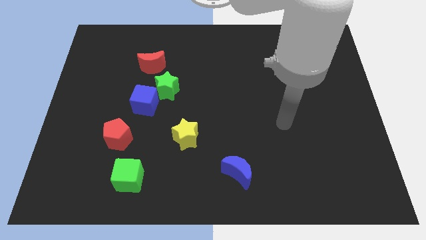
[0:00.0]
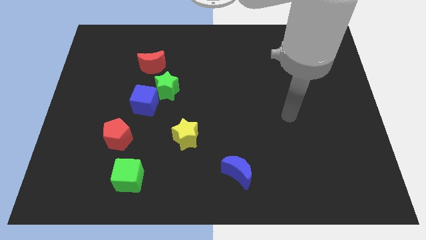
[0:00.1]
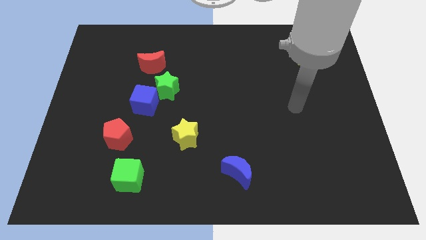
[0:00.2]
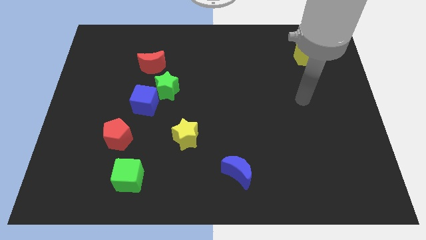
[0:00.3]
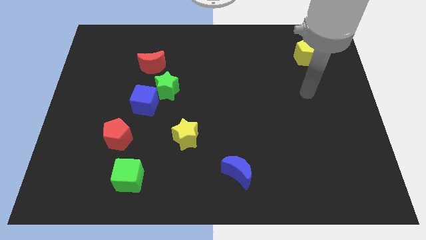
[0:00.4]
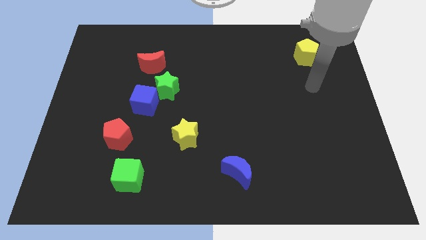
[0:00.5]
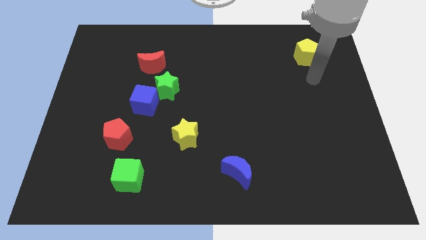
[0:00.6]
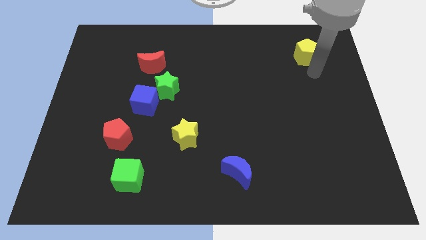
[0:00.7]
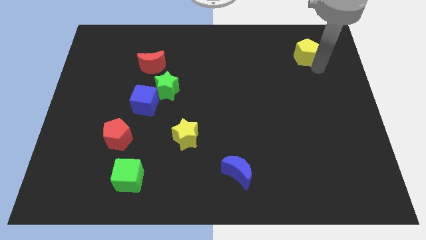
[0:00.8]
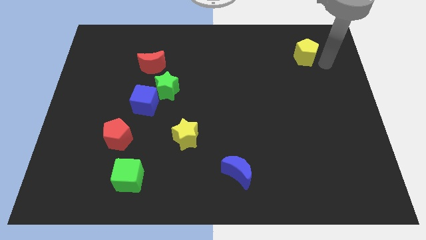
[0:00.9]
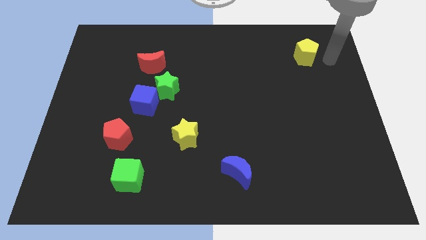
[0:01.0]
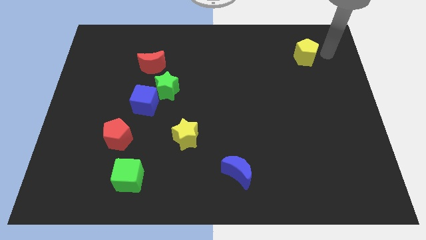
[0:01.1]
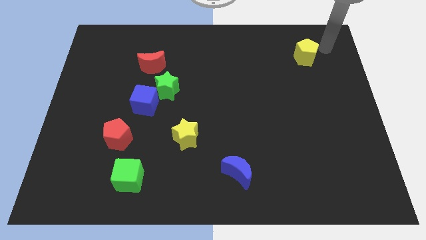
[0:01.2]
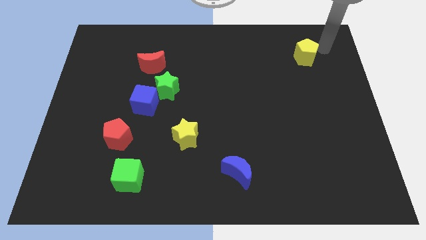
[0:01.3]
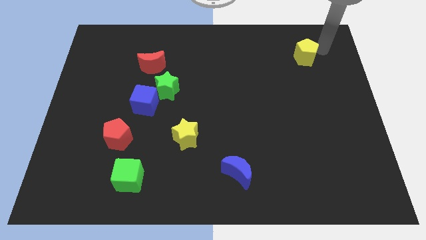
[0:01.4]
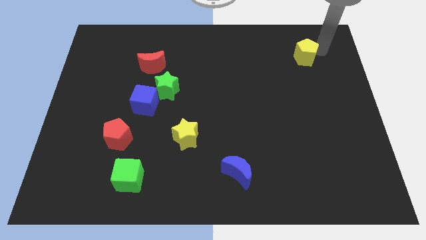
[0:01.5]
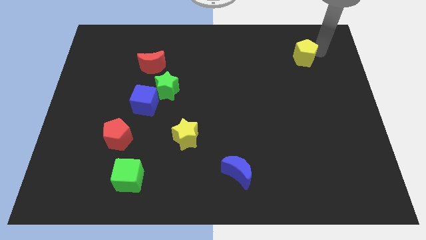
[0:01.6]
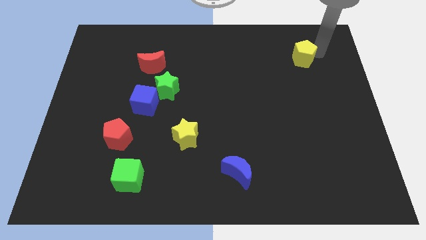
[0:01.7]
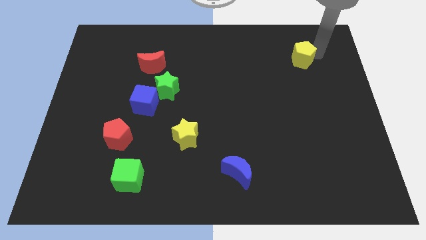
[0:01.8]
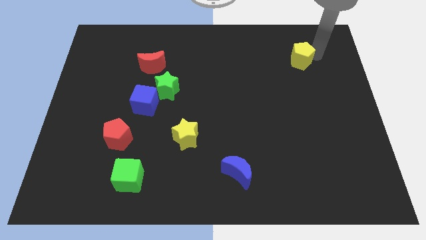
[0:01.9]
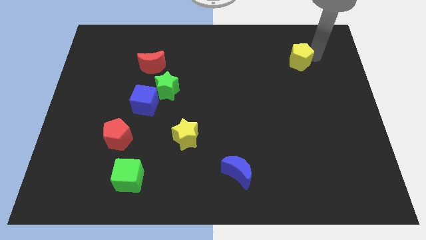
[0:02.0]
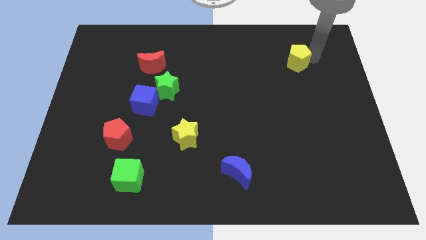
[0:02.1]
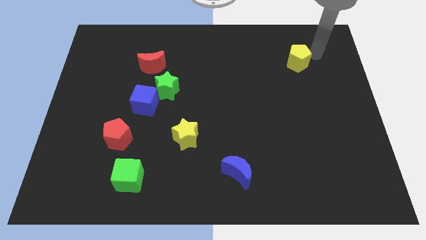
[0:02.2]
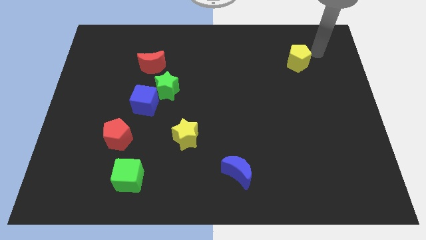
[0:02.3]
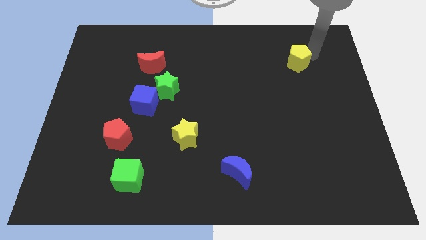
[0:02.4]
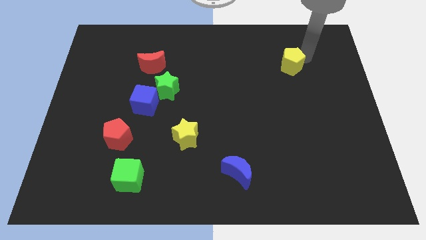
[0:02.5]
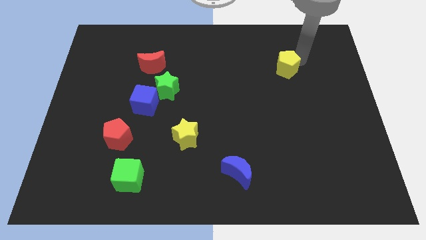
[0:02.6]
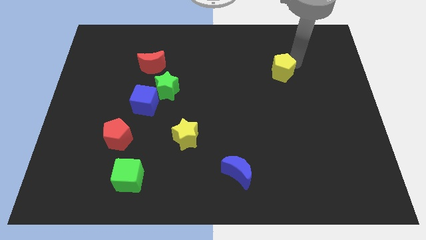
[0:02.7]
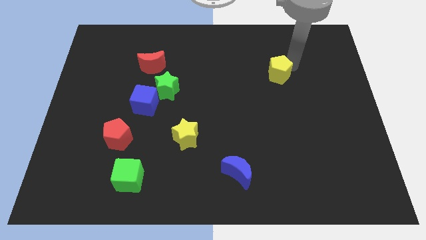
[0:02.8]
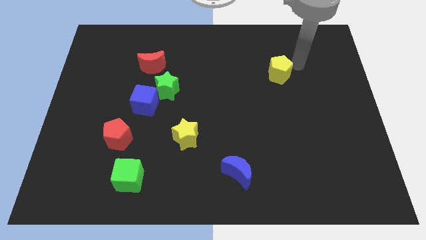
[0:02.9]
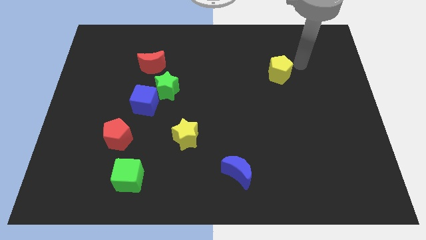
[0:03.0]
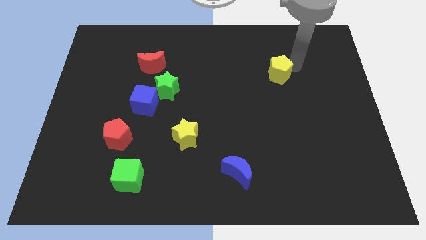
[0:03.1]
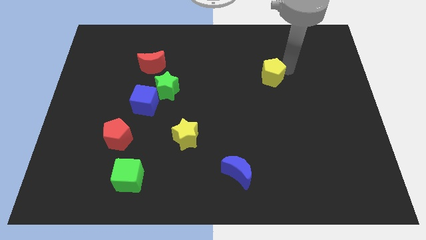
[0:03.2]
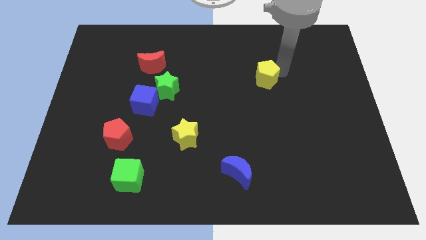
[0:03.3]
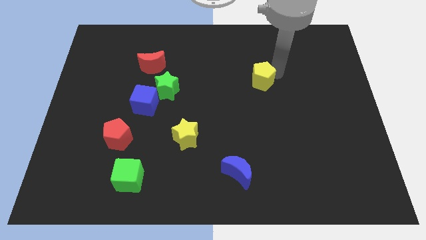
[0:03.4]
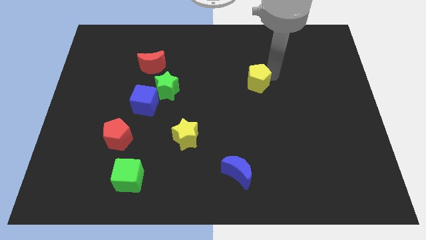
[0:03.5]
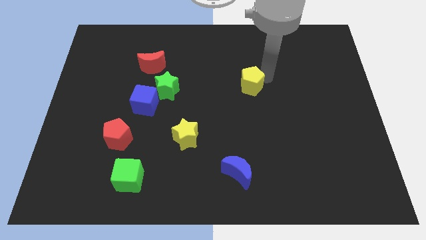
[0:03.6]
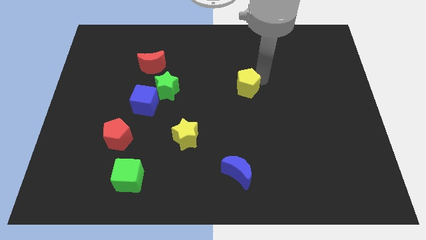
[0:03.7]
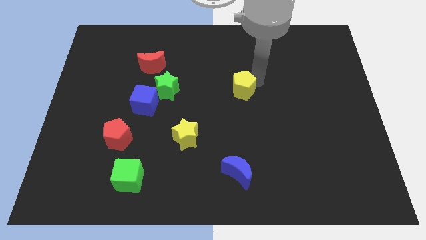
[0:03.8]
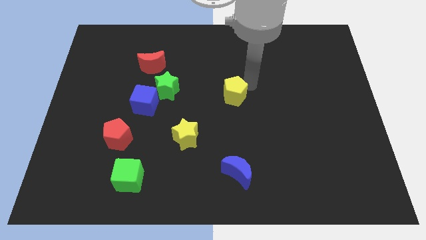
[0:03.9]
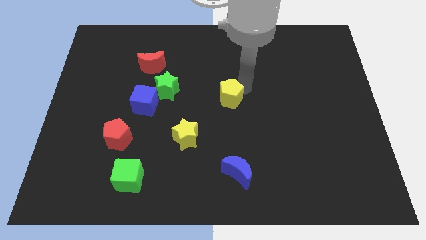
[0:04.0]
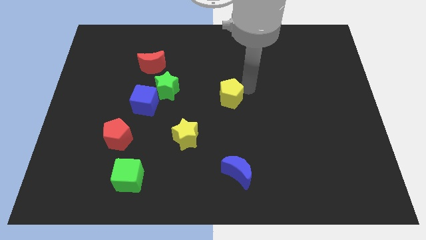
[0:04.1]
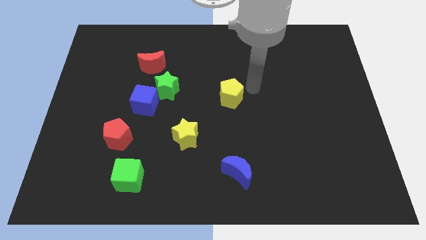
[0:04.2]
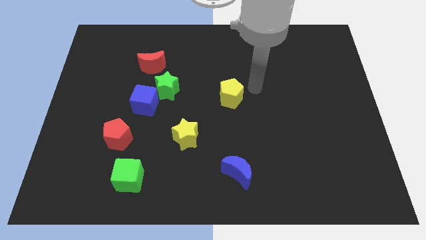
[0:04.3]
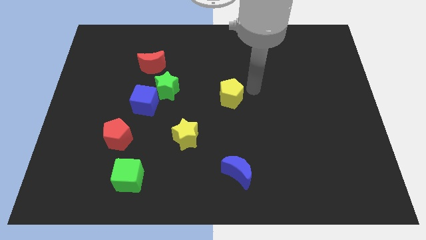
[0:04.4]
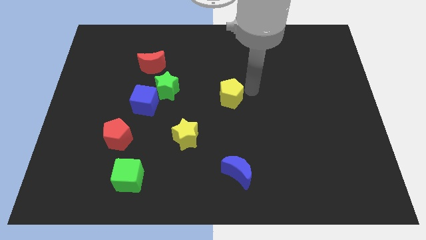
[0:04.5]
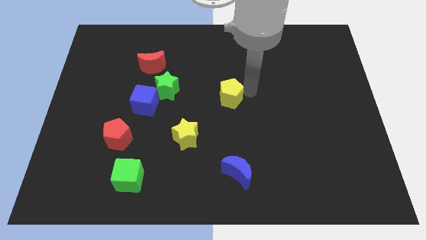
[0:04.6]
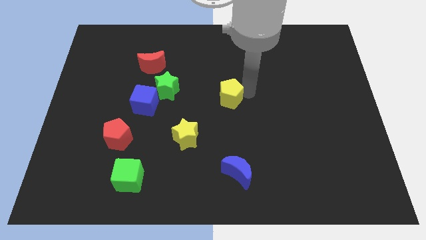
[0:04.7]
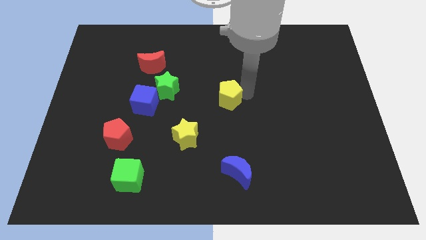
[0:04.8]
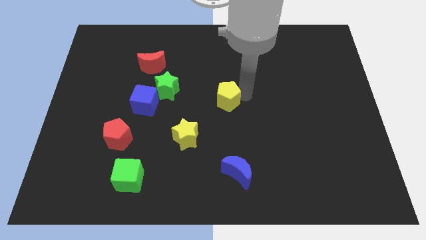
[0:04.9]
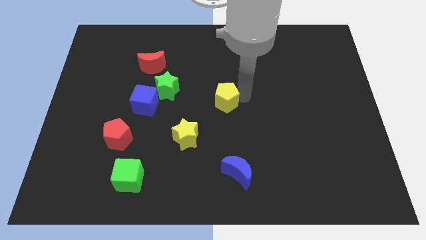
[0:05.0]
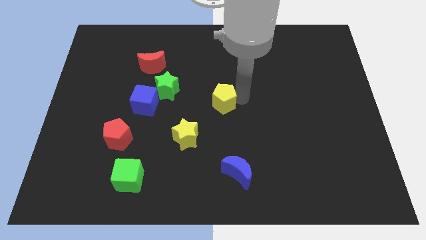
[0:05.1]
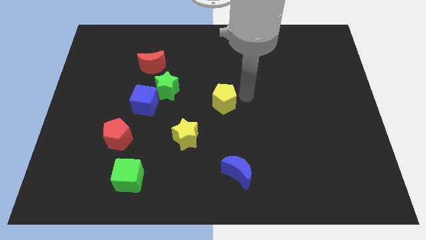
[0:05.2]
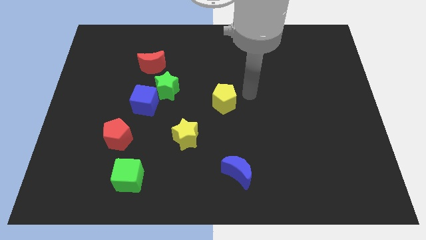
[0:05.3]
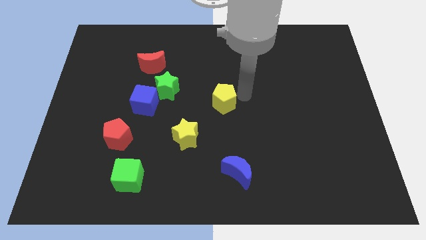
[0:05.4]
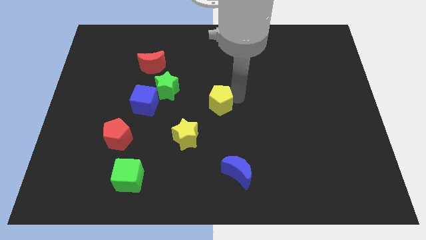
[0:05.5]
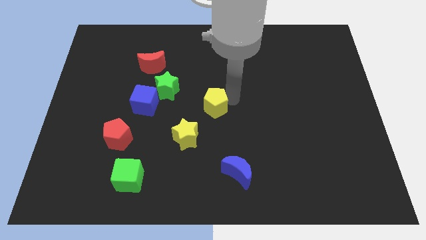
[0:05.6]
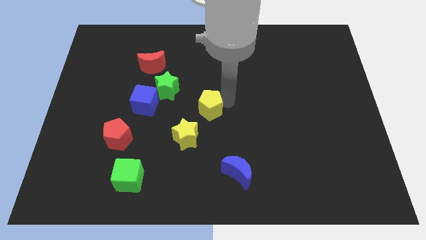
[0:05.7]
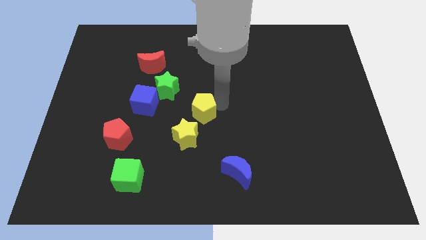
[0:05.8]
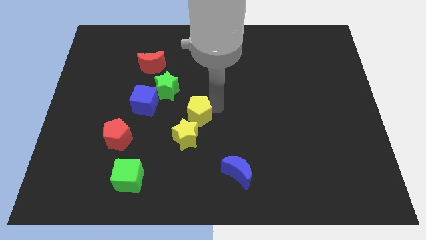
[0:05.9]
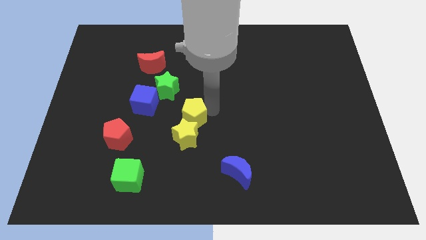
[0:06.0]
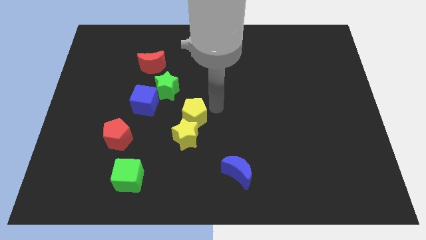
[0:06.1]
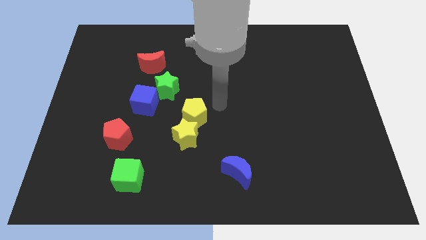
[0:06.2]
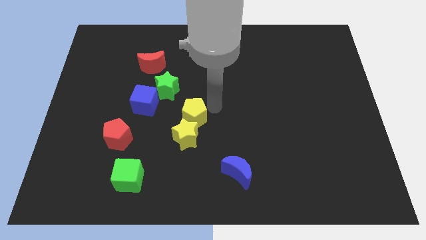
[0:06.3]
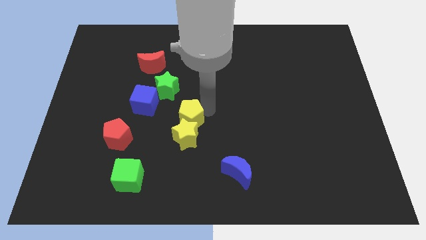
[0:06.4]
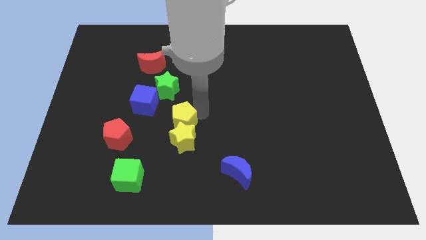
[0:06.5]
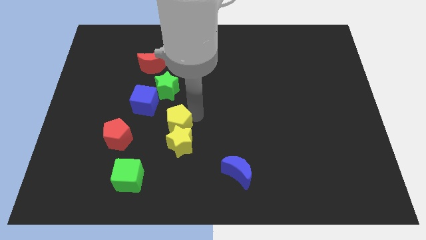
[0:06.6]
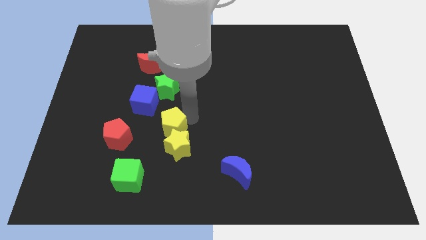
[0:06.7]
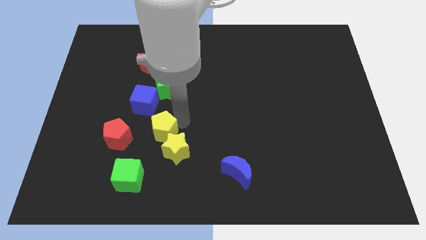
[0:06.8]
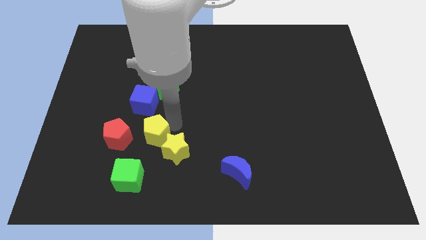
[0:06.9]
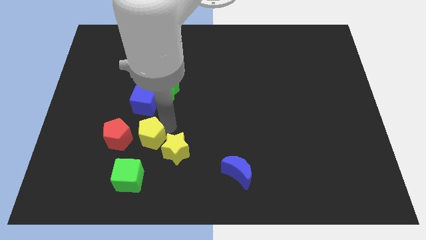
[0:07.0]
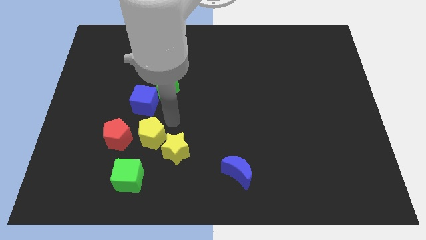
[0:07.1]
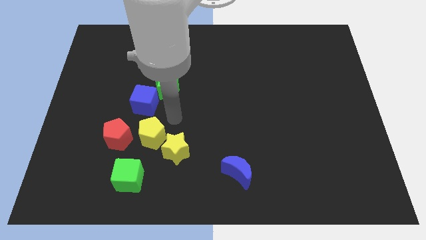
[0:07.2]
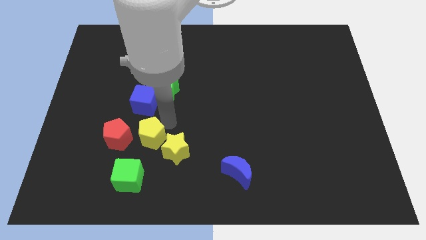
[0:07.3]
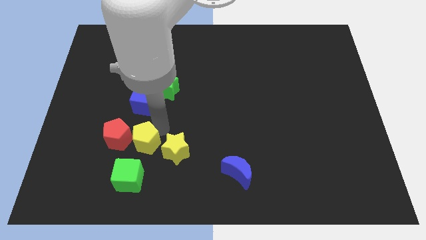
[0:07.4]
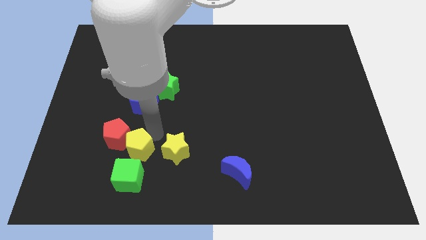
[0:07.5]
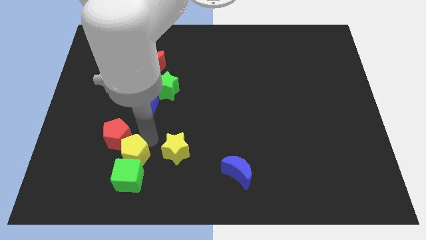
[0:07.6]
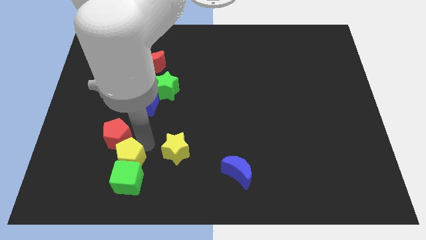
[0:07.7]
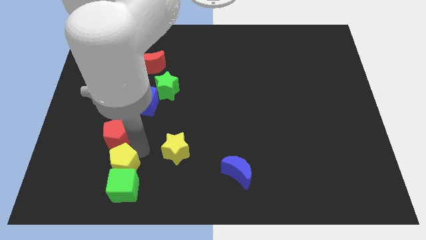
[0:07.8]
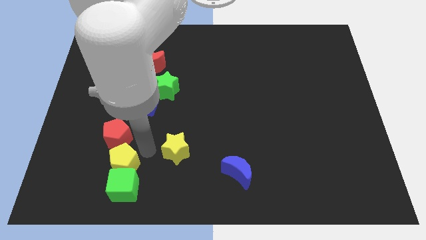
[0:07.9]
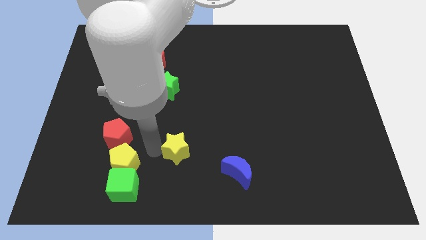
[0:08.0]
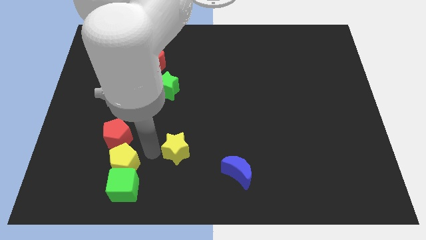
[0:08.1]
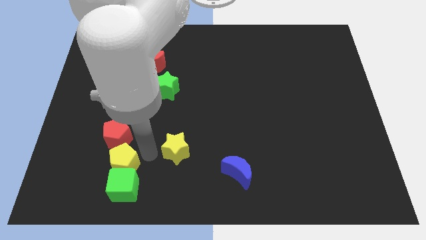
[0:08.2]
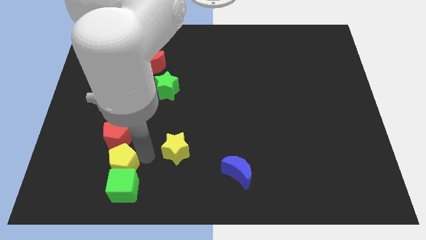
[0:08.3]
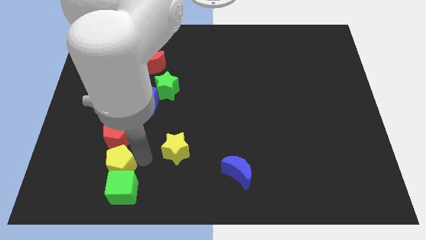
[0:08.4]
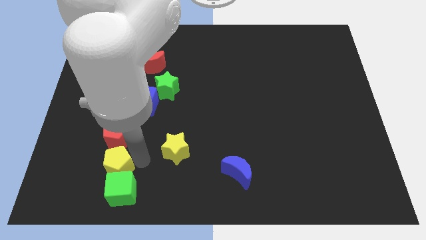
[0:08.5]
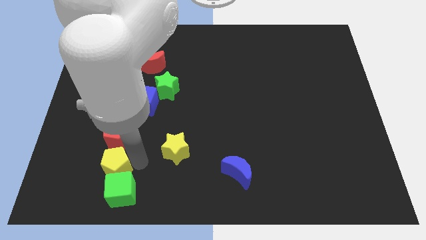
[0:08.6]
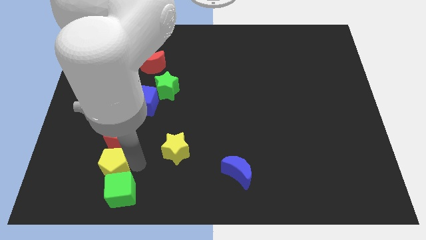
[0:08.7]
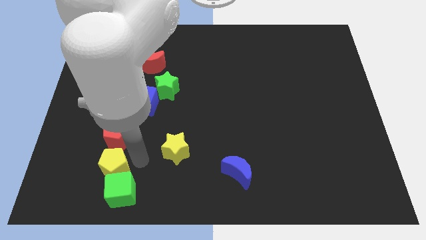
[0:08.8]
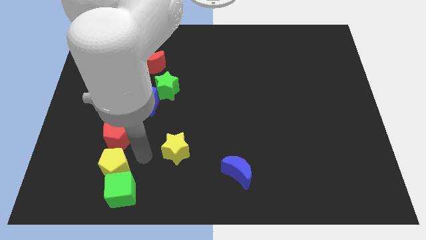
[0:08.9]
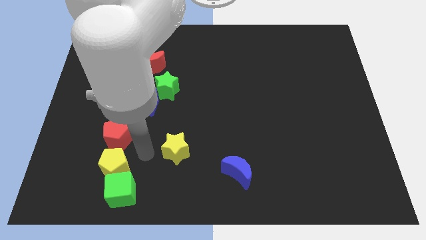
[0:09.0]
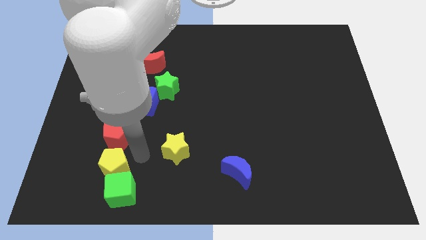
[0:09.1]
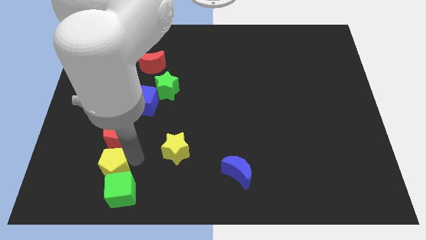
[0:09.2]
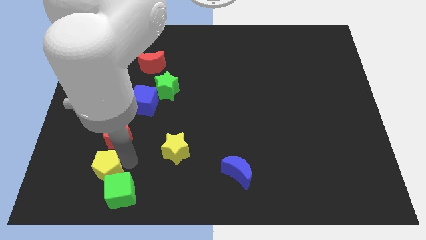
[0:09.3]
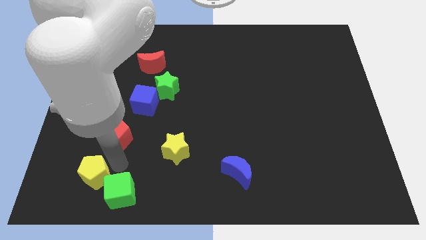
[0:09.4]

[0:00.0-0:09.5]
push the yellow pentagon to the left of the green cube
